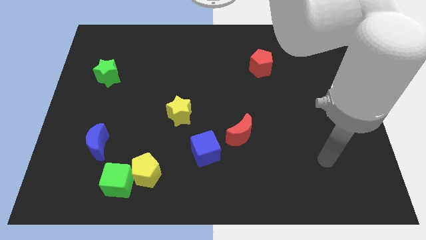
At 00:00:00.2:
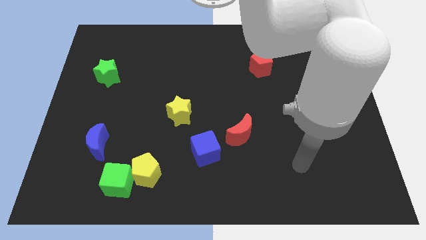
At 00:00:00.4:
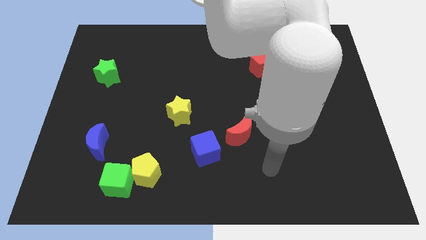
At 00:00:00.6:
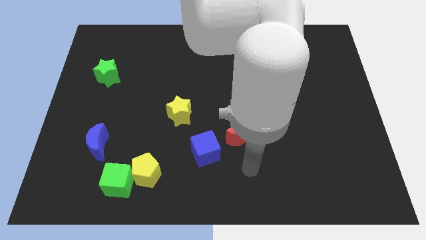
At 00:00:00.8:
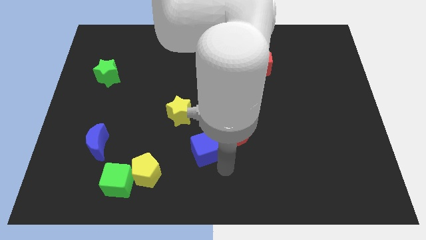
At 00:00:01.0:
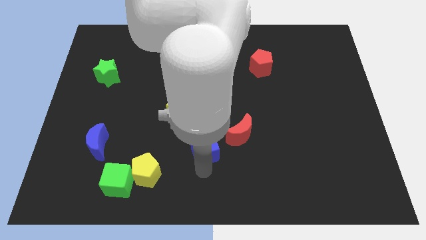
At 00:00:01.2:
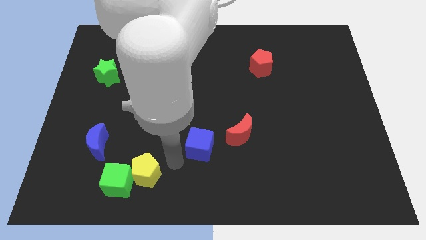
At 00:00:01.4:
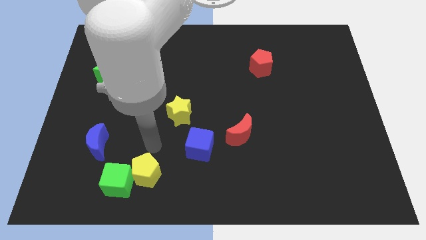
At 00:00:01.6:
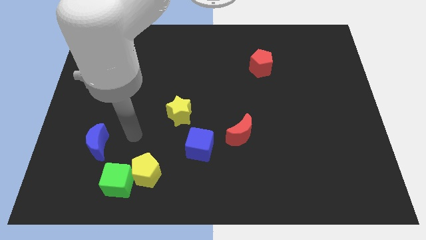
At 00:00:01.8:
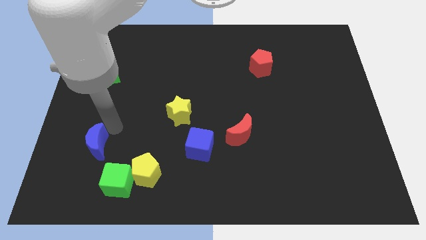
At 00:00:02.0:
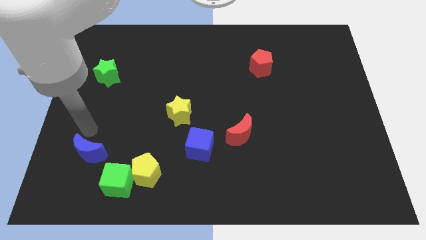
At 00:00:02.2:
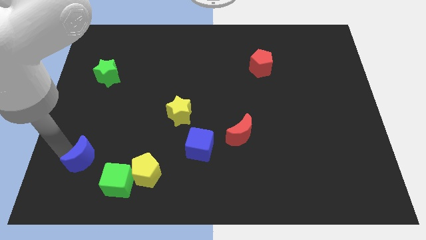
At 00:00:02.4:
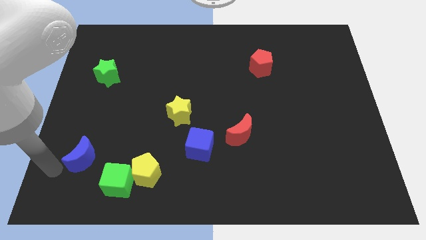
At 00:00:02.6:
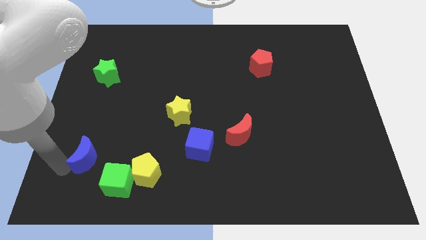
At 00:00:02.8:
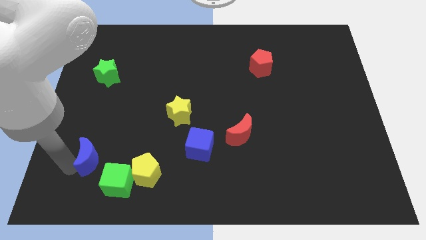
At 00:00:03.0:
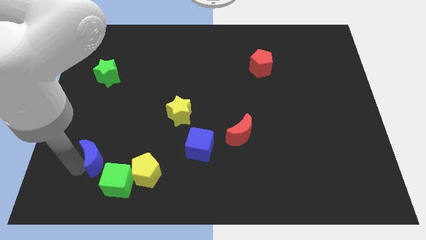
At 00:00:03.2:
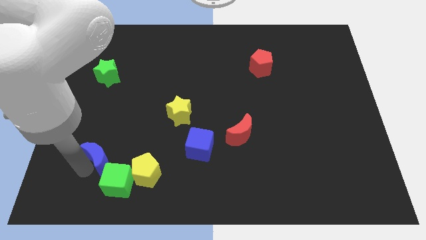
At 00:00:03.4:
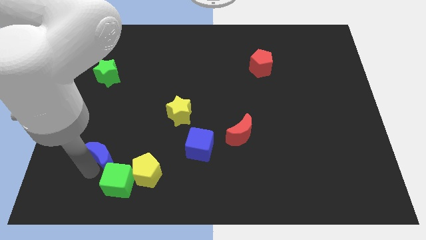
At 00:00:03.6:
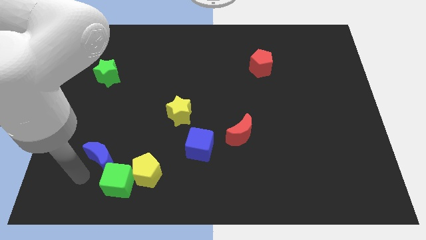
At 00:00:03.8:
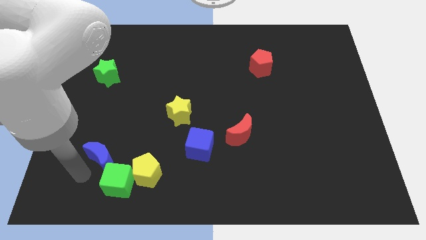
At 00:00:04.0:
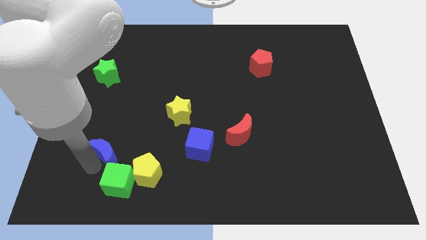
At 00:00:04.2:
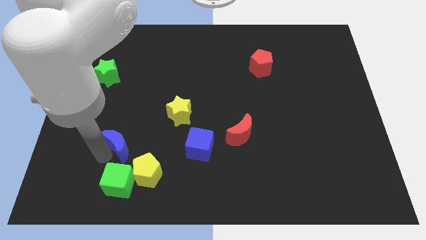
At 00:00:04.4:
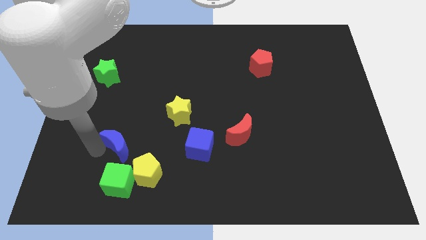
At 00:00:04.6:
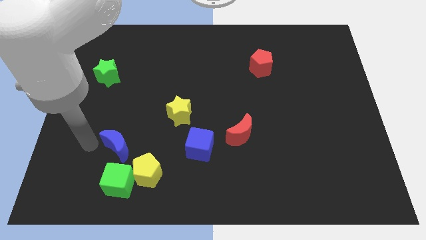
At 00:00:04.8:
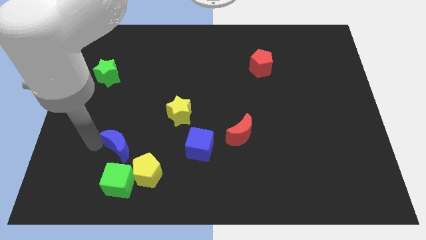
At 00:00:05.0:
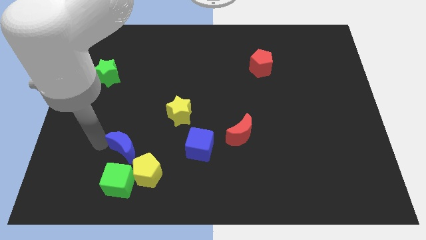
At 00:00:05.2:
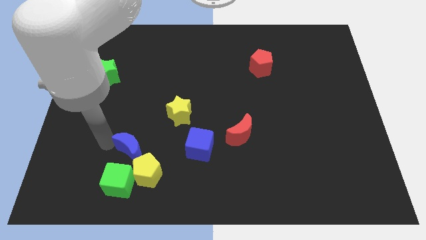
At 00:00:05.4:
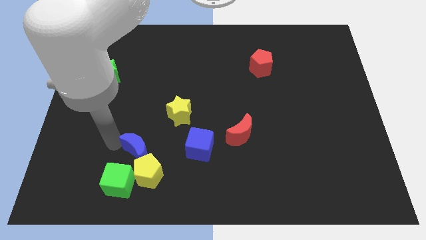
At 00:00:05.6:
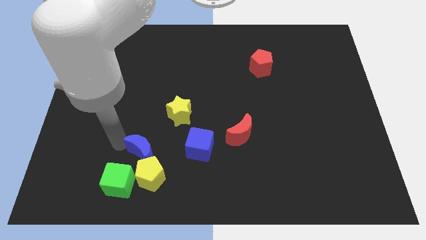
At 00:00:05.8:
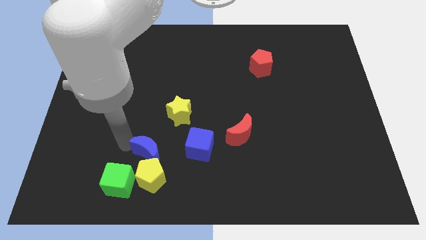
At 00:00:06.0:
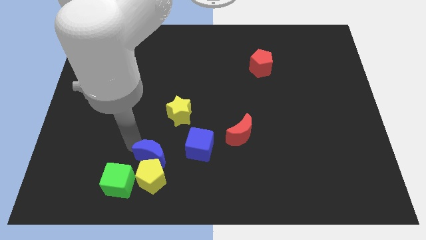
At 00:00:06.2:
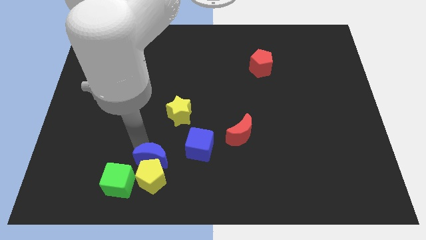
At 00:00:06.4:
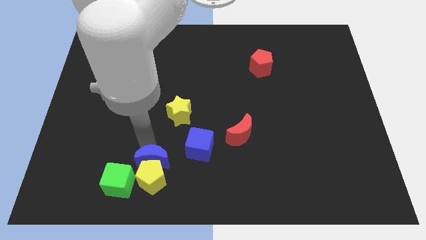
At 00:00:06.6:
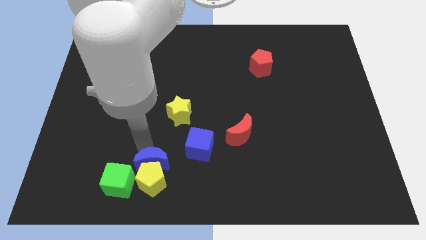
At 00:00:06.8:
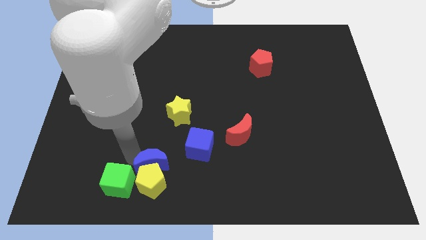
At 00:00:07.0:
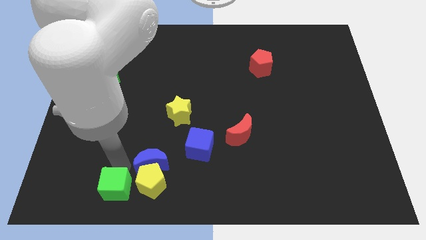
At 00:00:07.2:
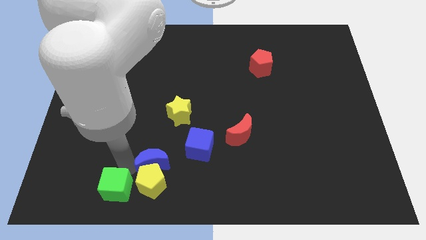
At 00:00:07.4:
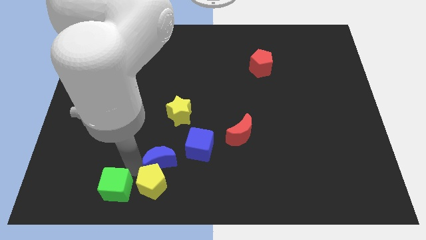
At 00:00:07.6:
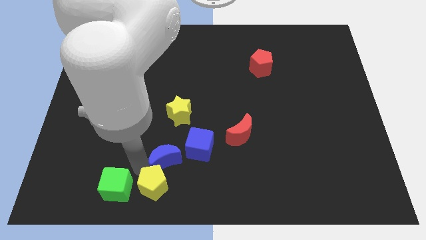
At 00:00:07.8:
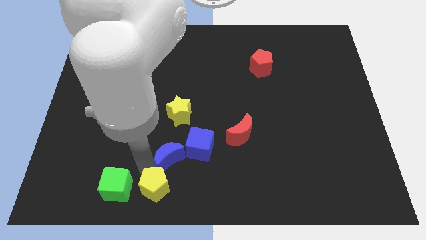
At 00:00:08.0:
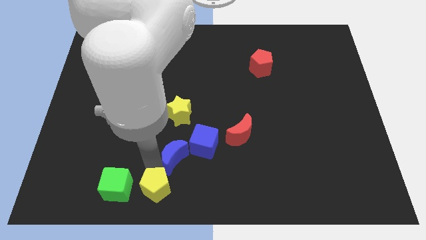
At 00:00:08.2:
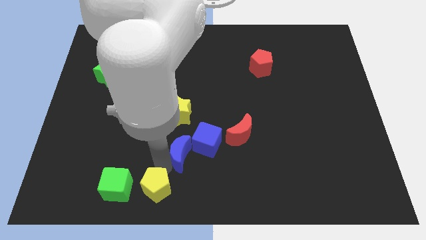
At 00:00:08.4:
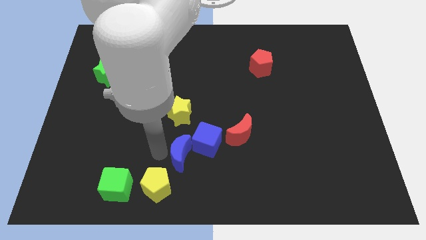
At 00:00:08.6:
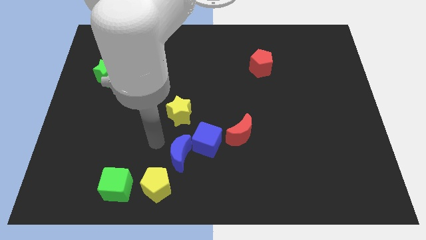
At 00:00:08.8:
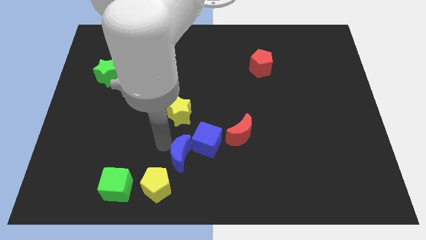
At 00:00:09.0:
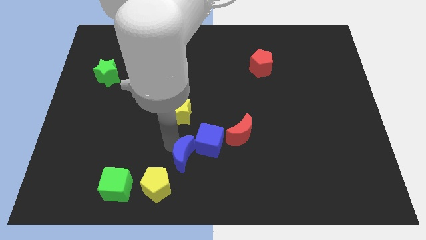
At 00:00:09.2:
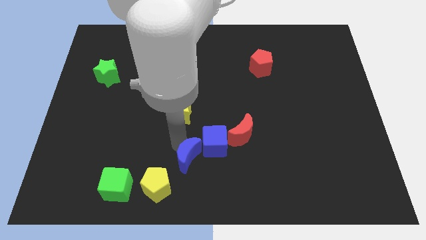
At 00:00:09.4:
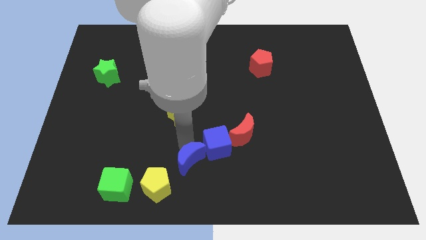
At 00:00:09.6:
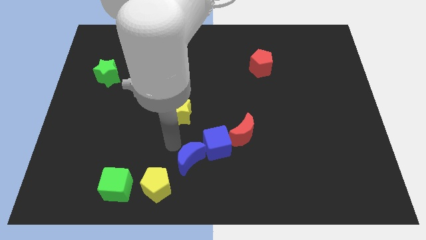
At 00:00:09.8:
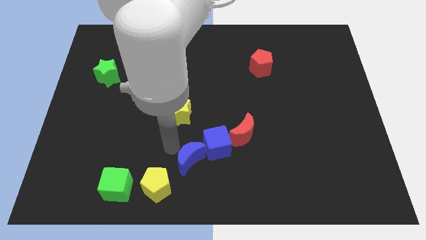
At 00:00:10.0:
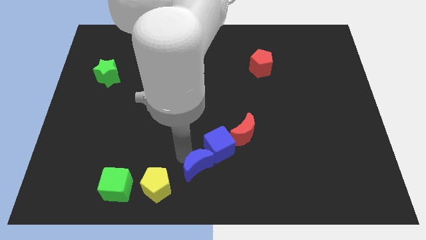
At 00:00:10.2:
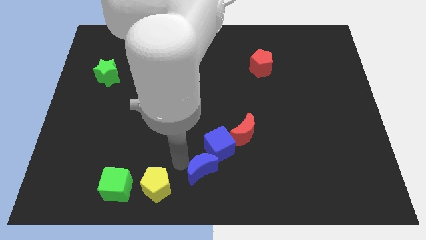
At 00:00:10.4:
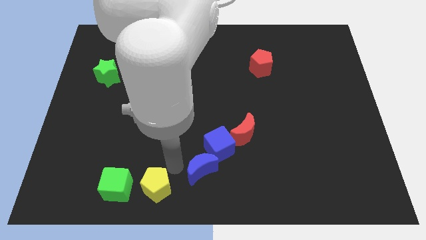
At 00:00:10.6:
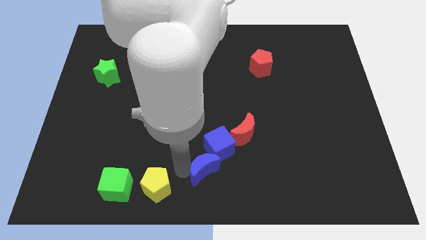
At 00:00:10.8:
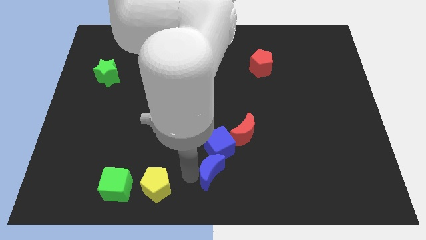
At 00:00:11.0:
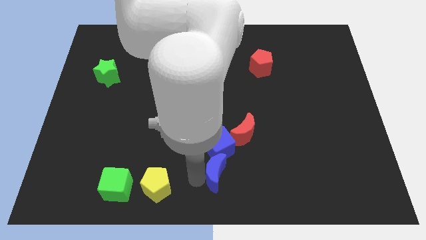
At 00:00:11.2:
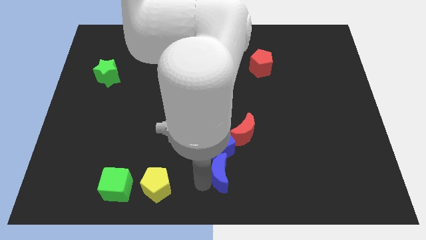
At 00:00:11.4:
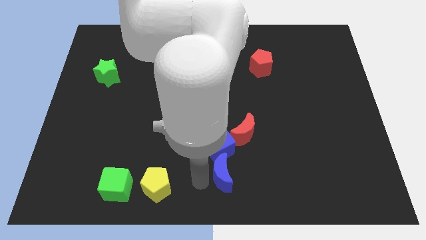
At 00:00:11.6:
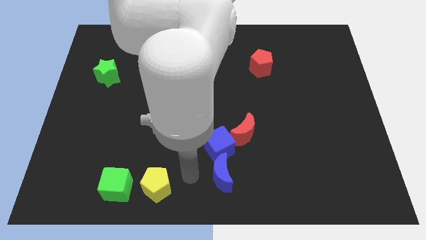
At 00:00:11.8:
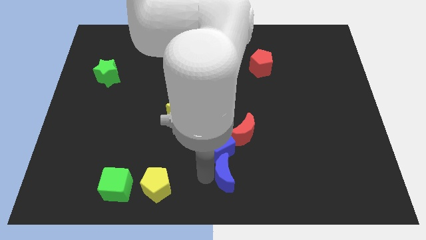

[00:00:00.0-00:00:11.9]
slide the blue moon to the bottom side of the red moon
